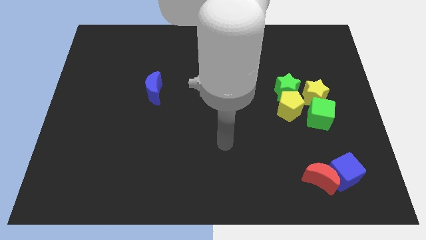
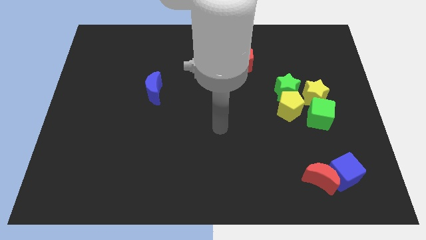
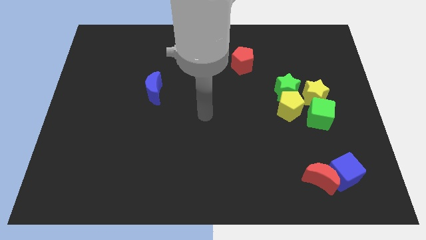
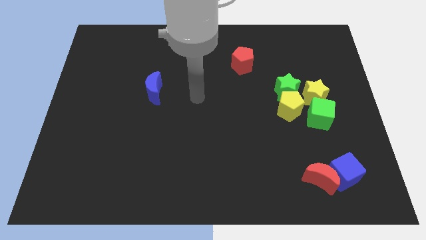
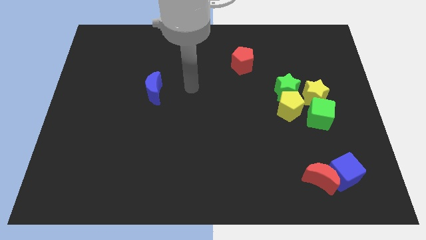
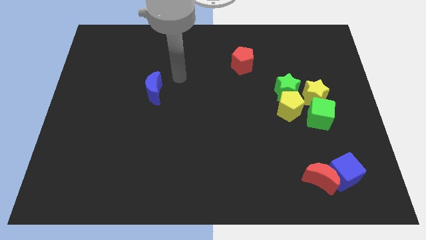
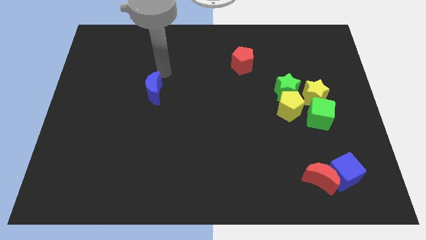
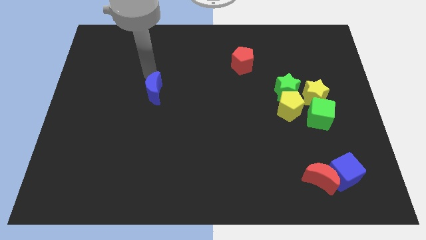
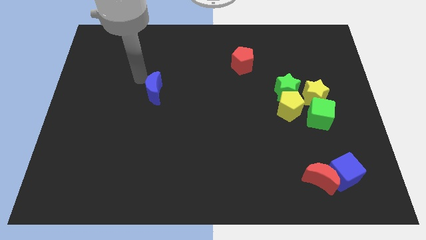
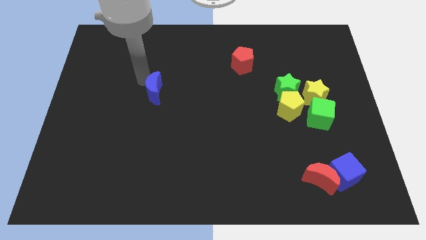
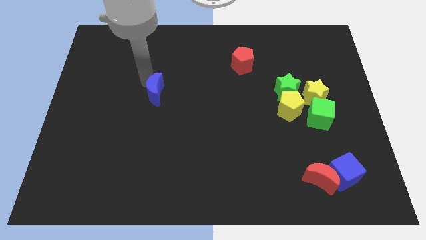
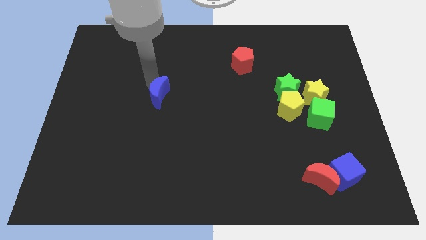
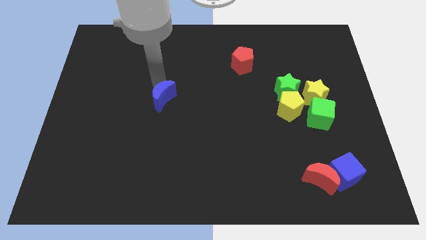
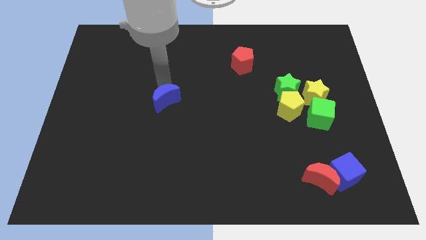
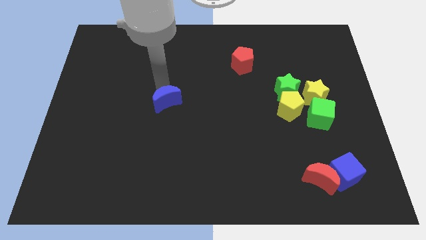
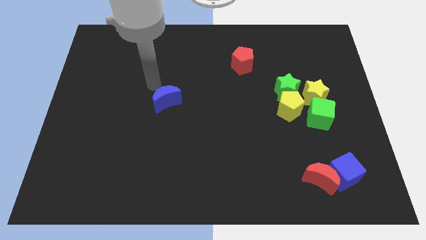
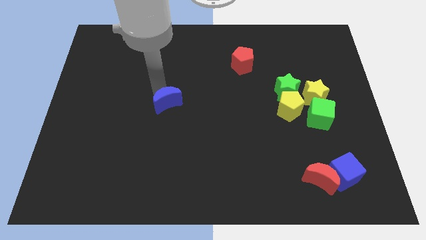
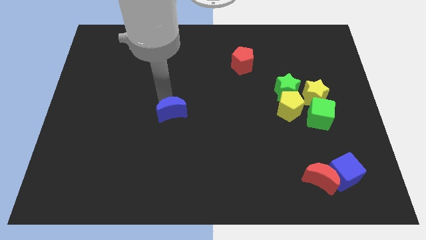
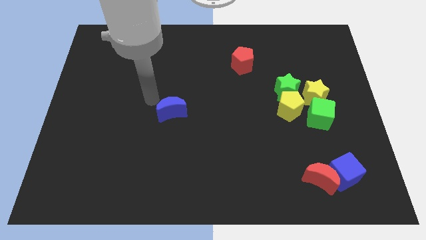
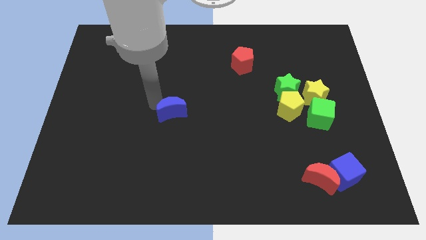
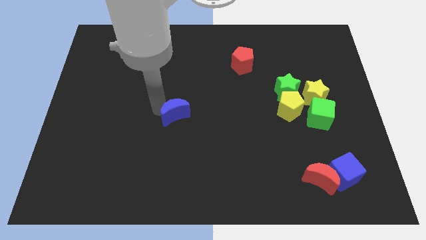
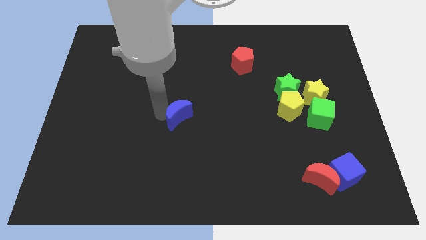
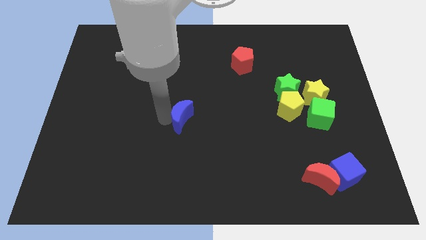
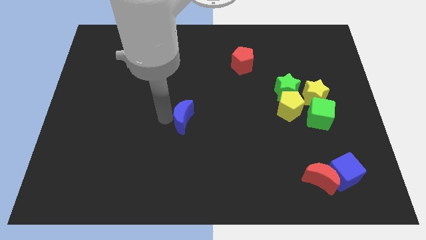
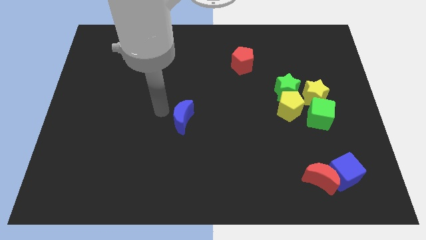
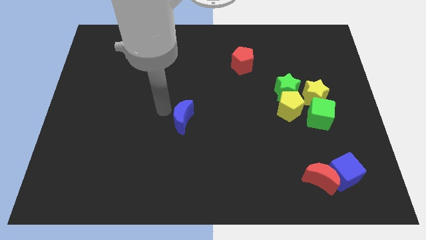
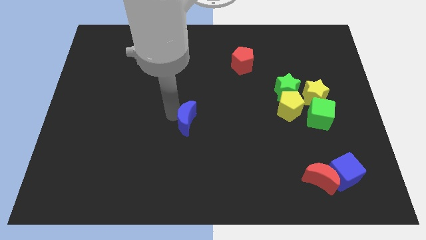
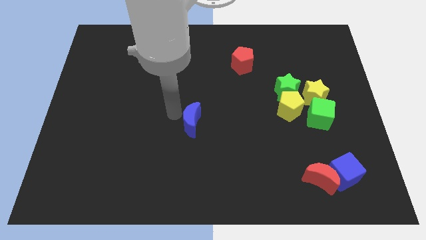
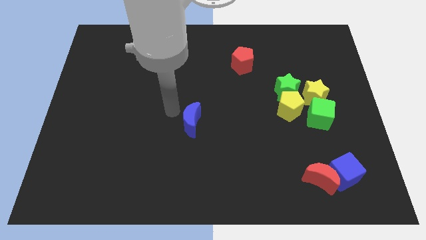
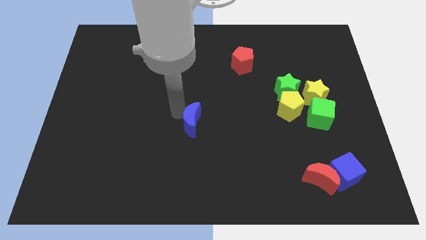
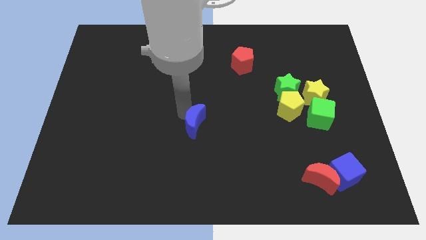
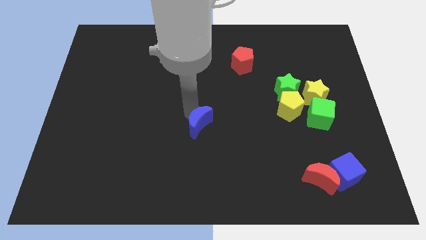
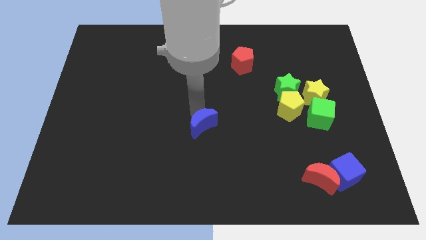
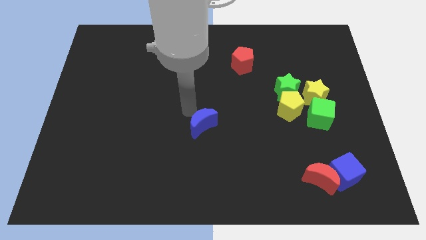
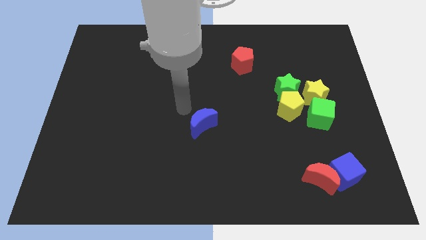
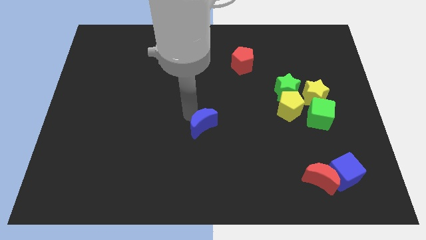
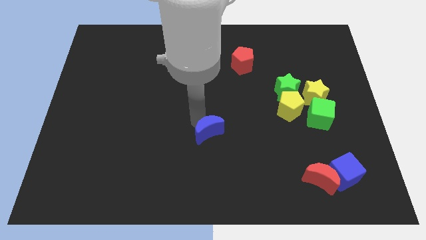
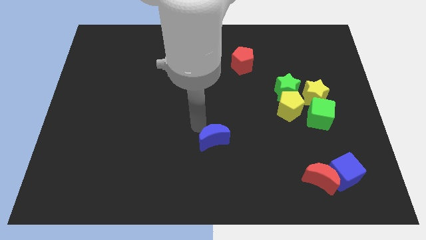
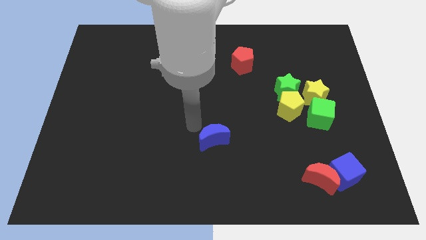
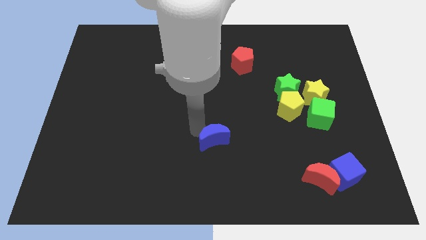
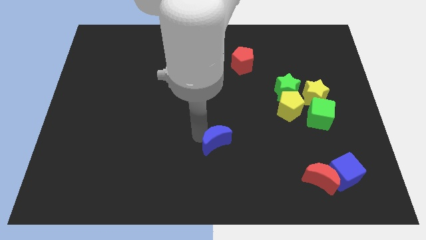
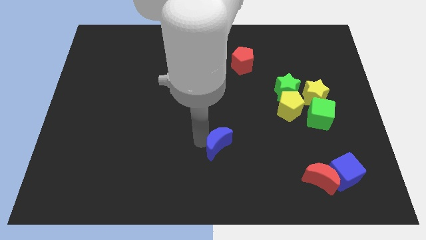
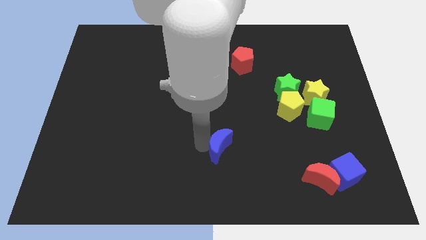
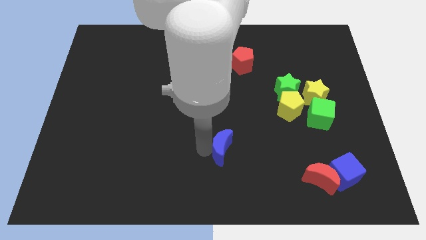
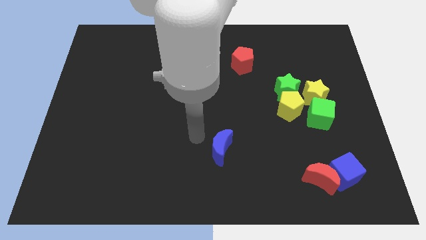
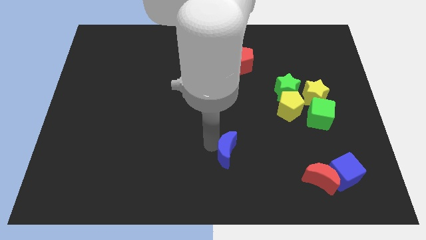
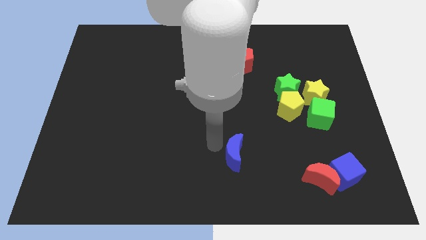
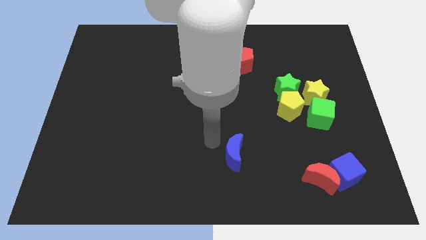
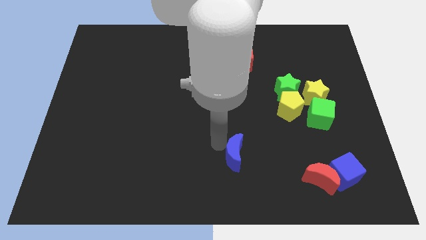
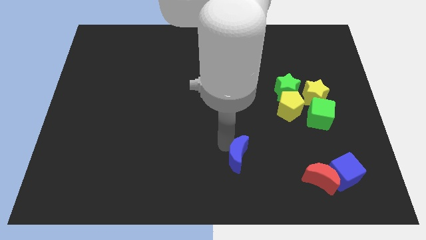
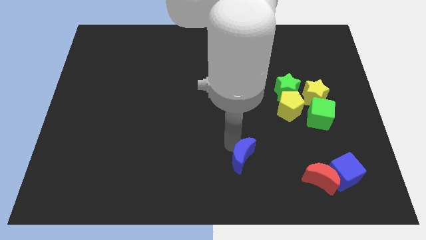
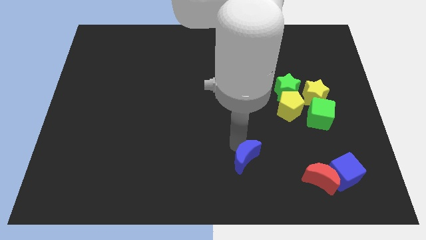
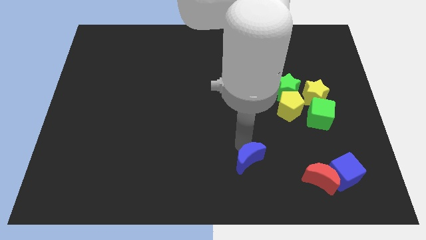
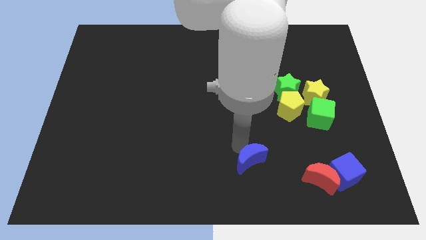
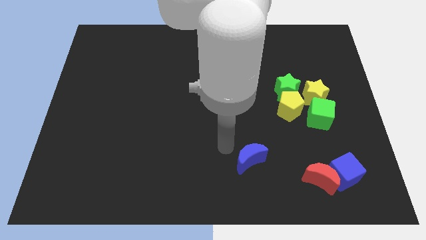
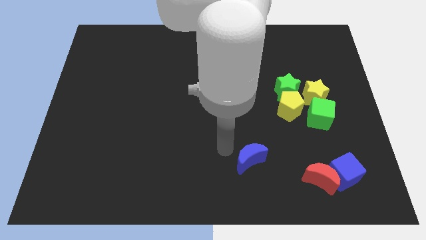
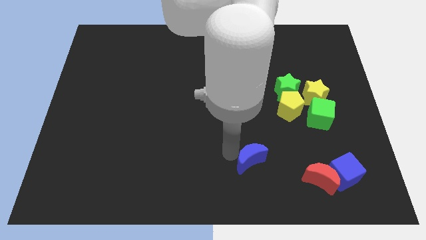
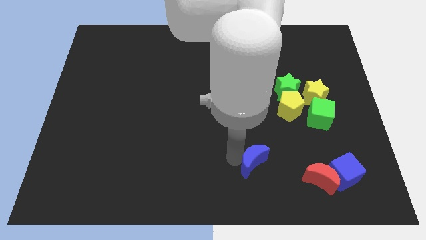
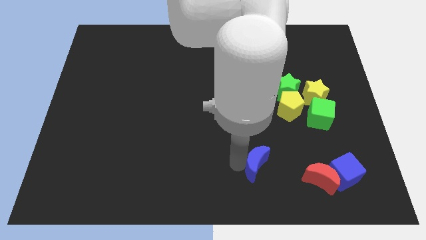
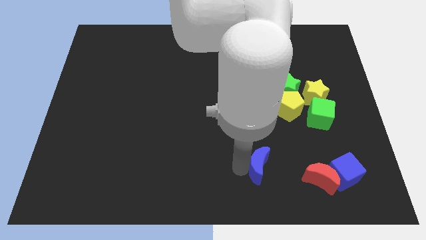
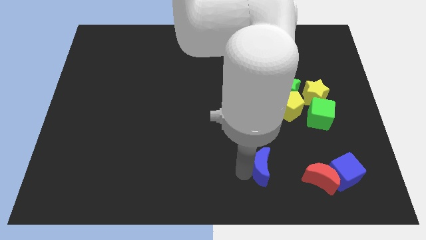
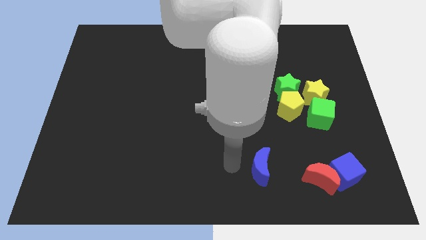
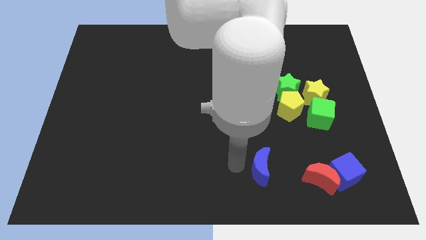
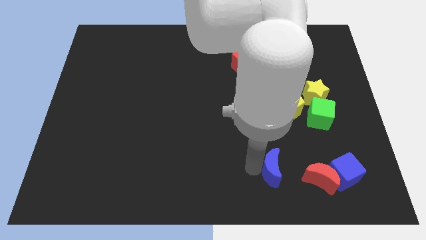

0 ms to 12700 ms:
slide the blue moon to the left of the blue cube
